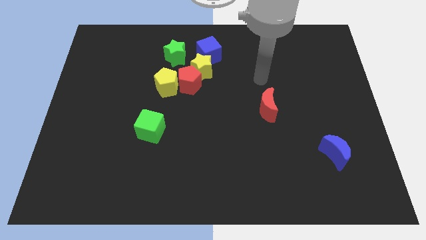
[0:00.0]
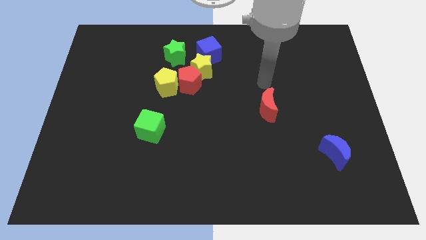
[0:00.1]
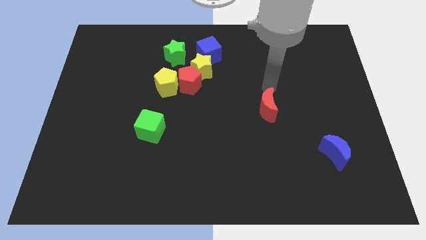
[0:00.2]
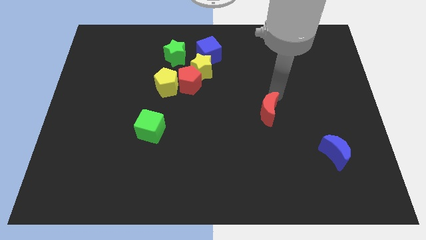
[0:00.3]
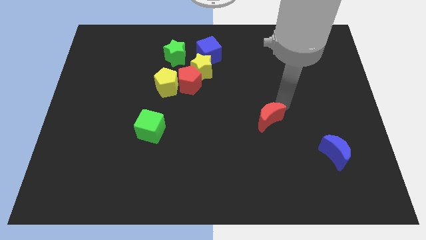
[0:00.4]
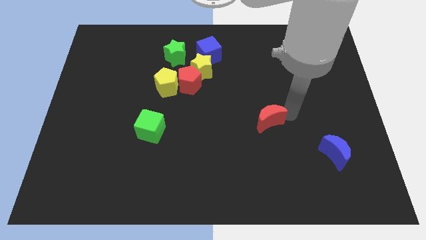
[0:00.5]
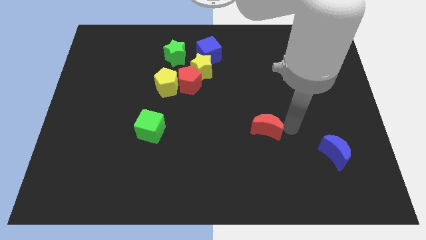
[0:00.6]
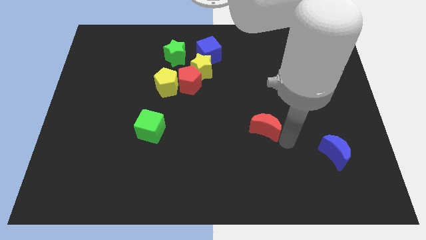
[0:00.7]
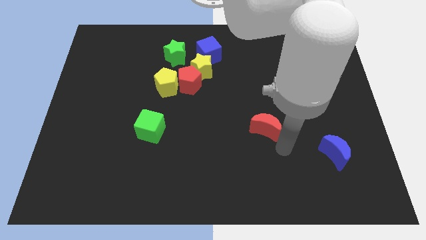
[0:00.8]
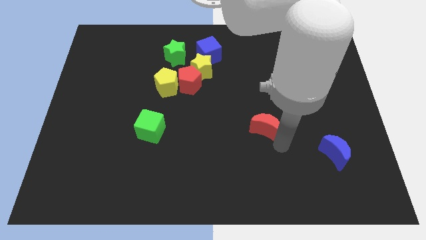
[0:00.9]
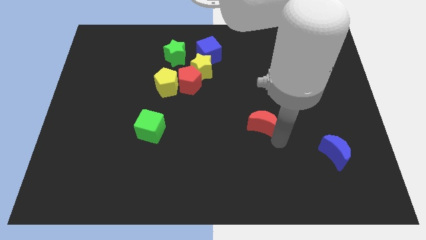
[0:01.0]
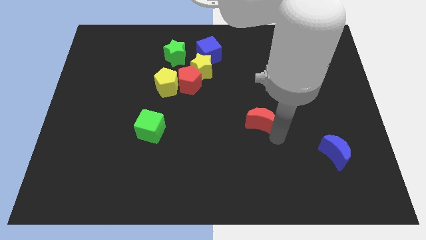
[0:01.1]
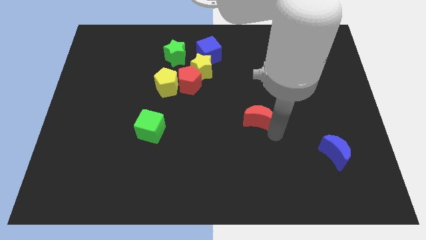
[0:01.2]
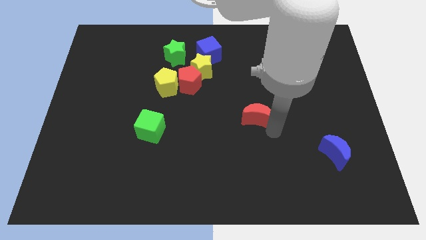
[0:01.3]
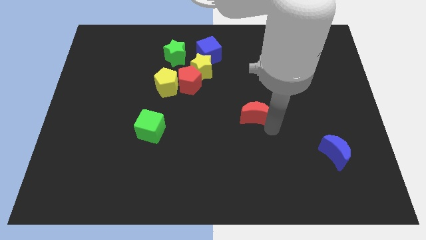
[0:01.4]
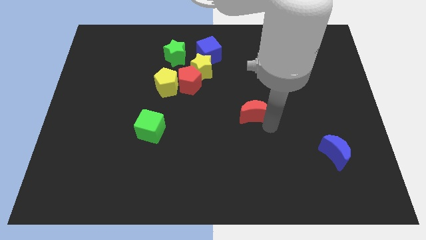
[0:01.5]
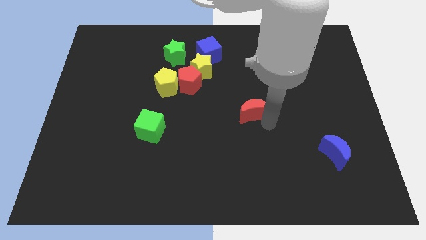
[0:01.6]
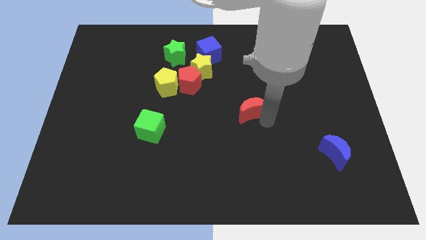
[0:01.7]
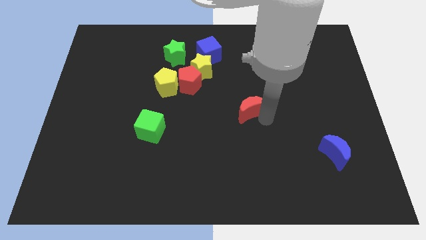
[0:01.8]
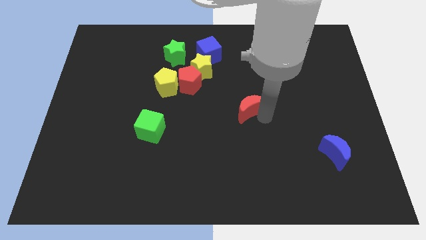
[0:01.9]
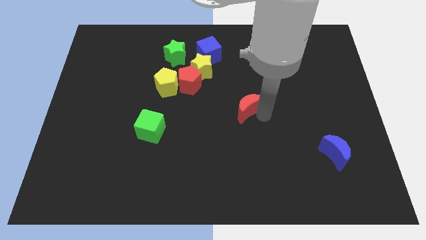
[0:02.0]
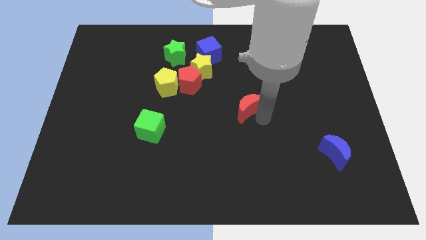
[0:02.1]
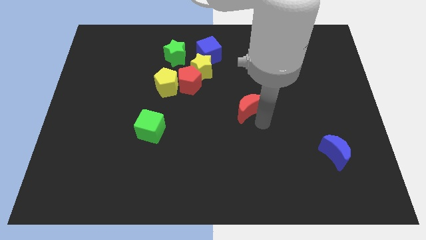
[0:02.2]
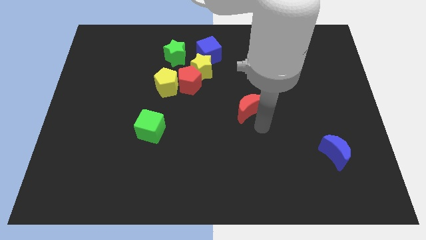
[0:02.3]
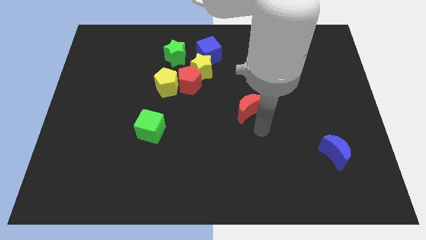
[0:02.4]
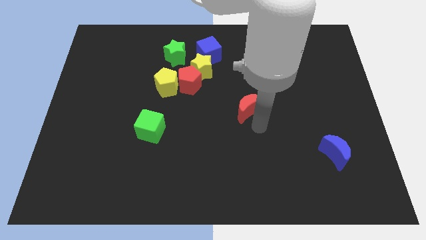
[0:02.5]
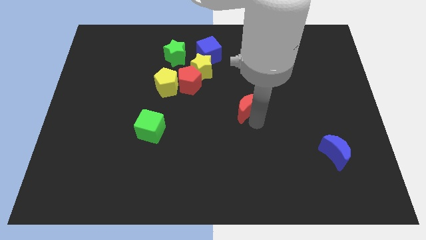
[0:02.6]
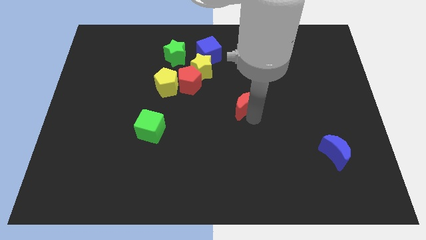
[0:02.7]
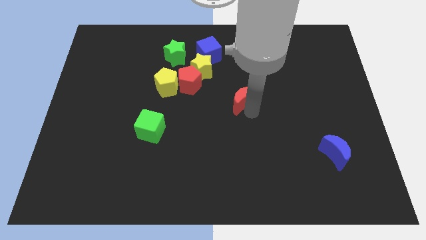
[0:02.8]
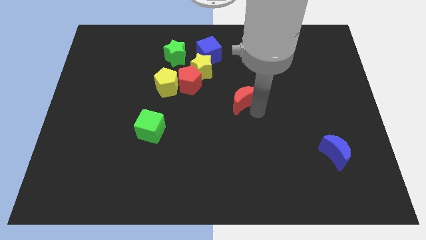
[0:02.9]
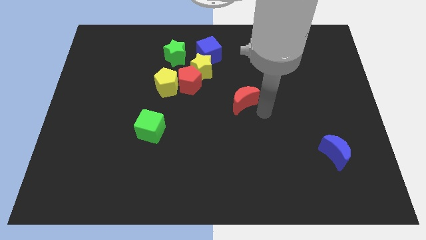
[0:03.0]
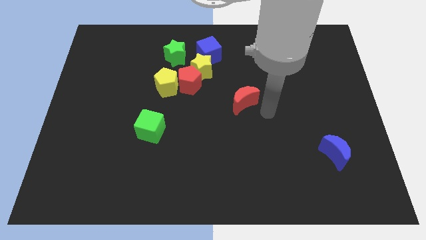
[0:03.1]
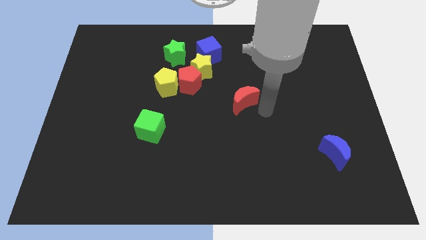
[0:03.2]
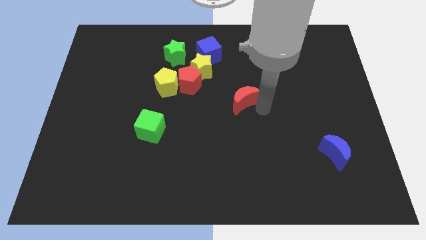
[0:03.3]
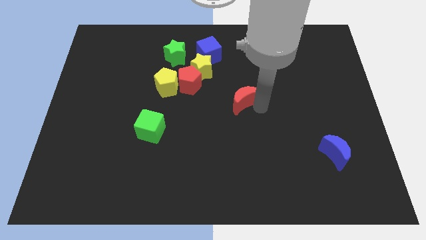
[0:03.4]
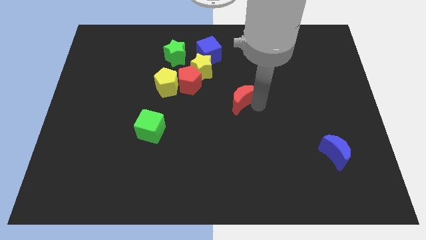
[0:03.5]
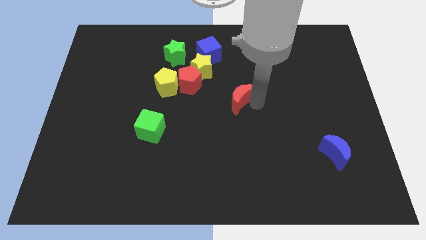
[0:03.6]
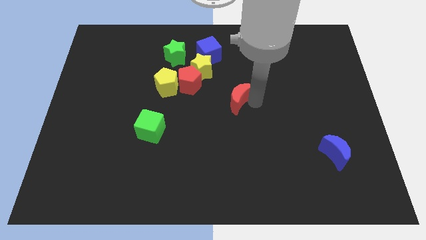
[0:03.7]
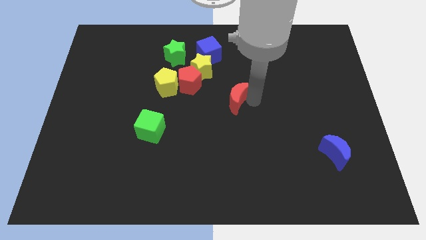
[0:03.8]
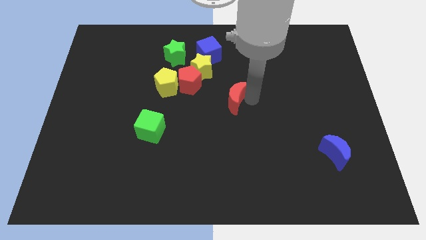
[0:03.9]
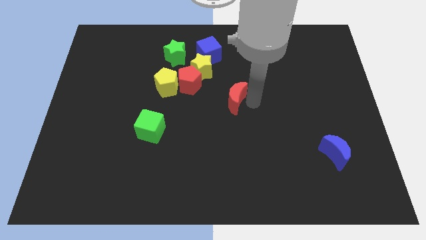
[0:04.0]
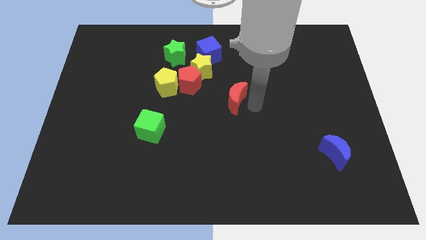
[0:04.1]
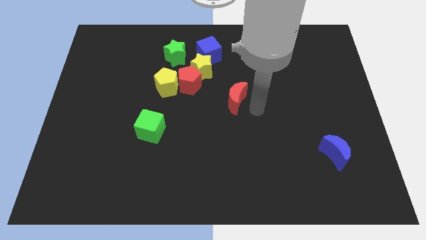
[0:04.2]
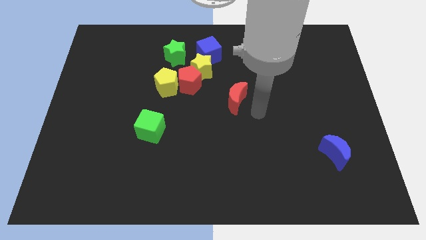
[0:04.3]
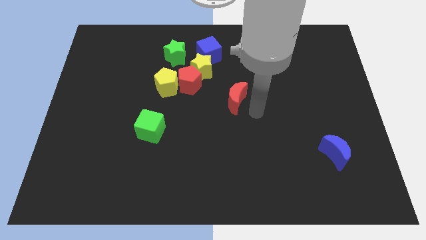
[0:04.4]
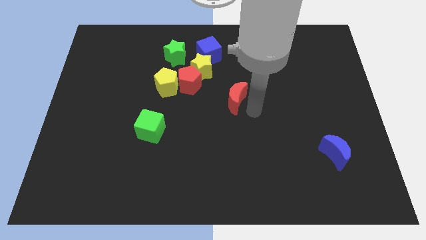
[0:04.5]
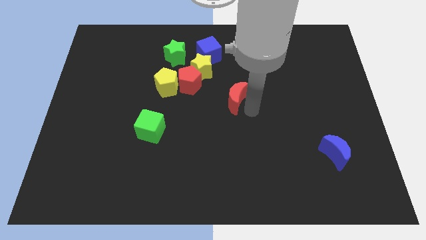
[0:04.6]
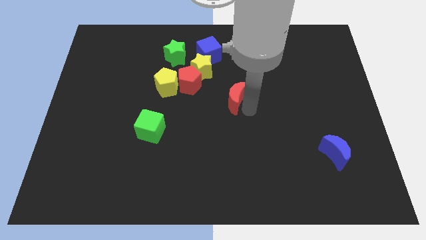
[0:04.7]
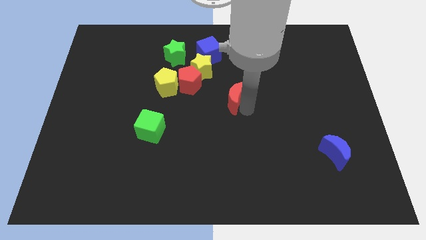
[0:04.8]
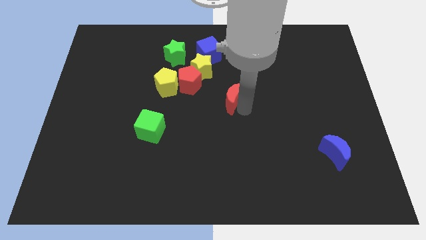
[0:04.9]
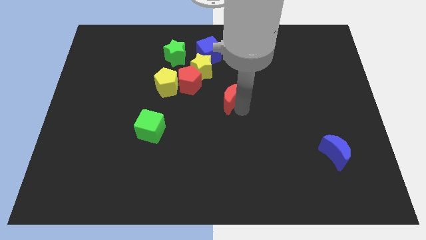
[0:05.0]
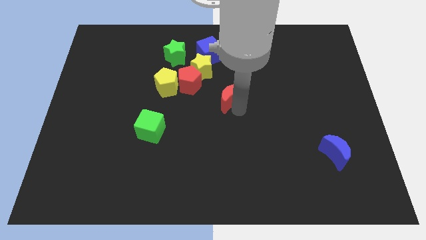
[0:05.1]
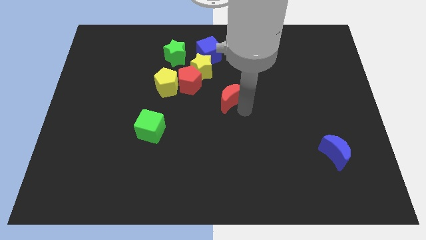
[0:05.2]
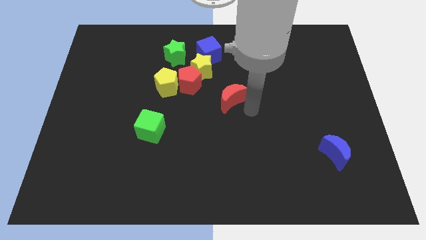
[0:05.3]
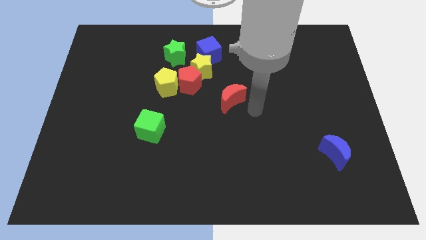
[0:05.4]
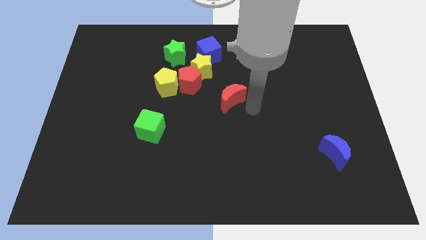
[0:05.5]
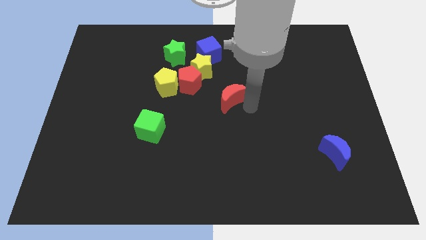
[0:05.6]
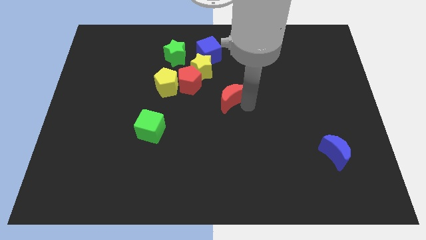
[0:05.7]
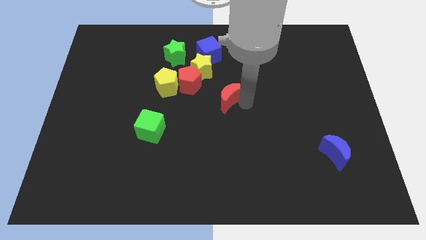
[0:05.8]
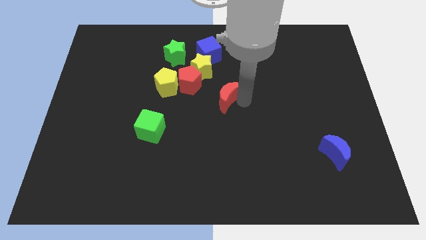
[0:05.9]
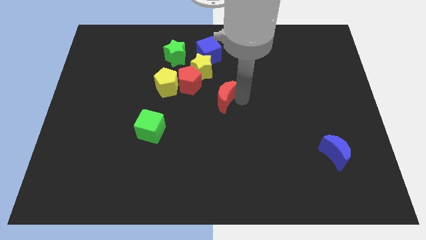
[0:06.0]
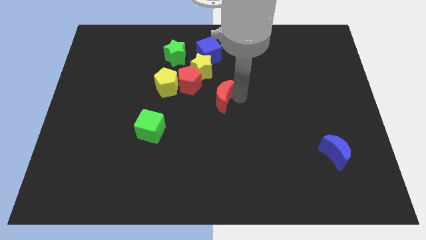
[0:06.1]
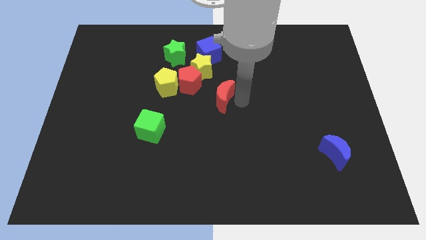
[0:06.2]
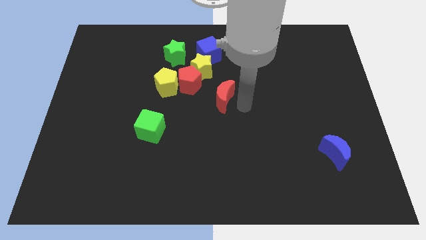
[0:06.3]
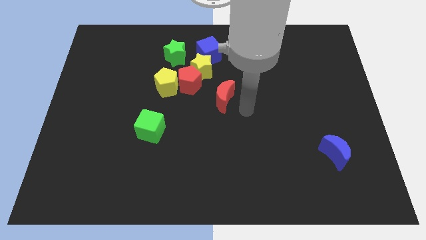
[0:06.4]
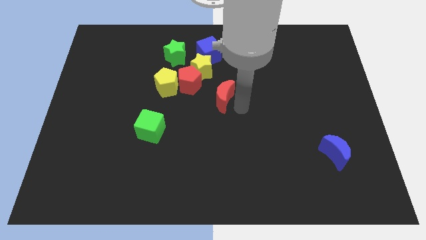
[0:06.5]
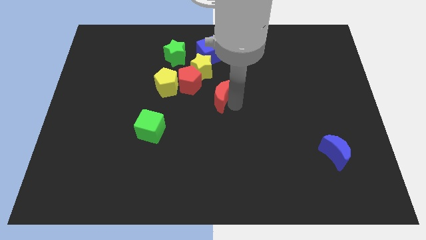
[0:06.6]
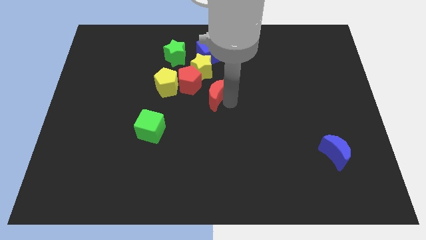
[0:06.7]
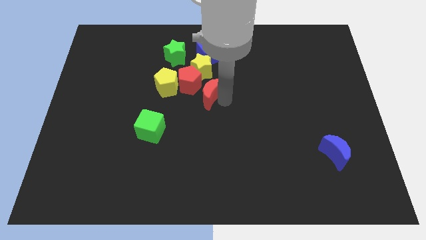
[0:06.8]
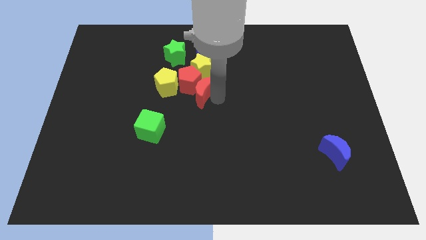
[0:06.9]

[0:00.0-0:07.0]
slide the red moon towards the red pentagon

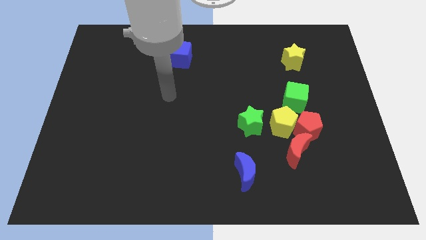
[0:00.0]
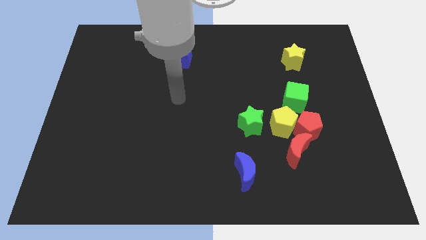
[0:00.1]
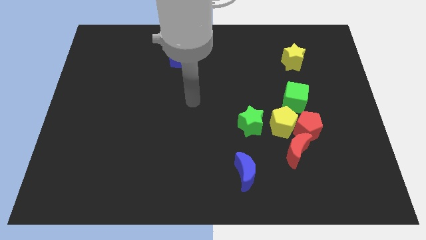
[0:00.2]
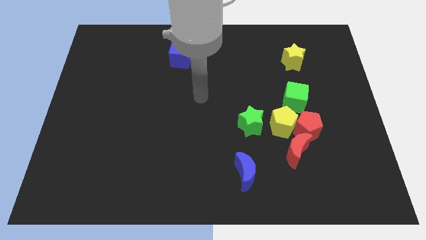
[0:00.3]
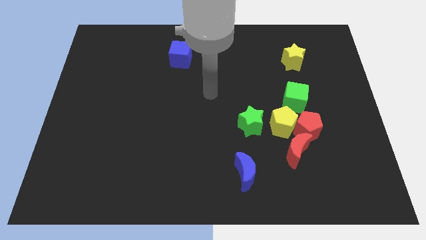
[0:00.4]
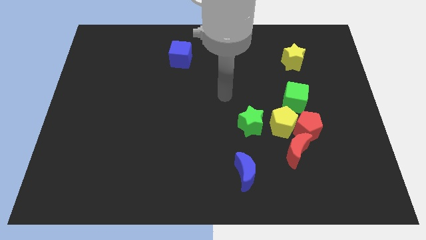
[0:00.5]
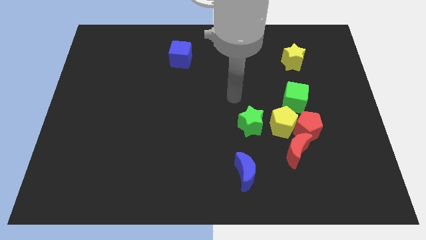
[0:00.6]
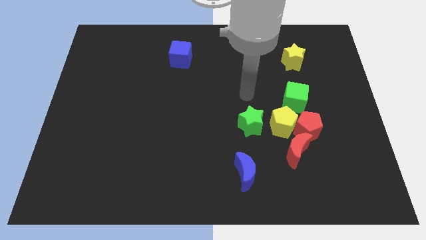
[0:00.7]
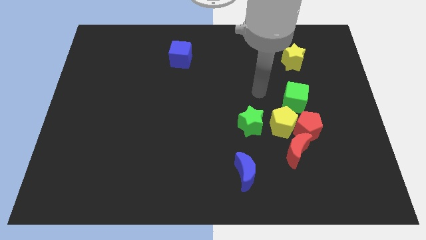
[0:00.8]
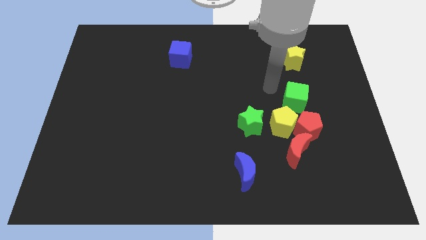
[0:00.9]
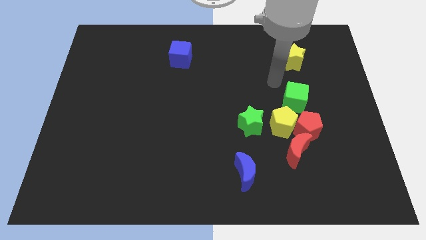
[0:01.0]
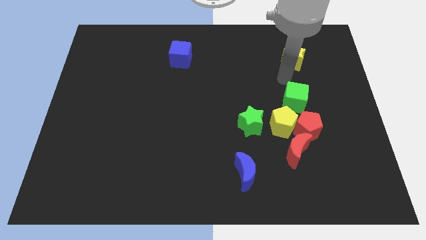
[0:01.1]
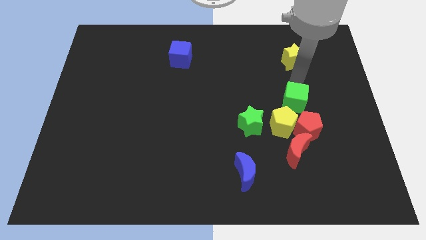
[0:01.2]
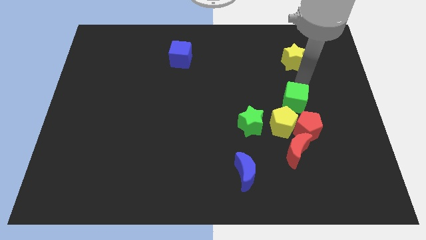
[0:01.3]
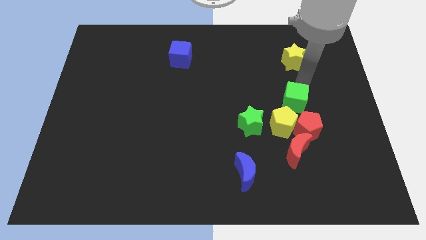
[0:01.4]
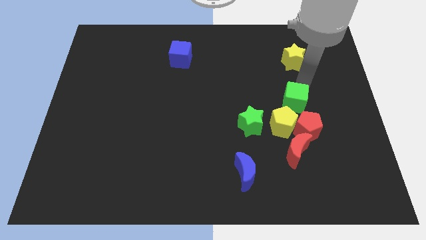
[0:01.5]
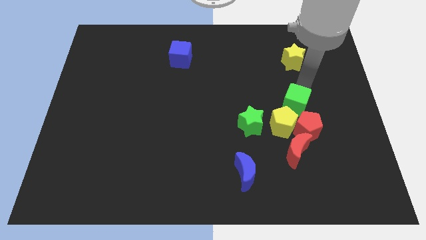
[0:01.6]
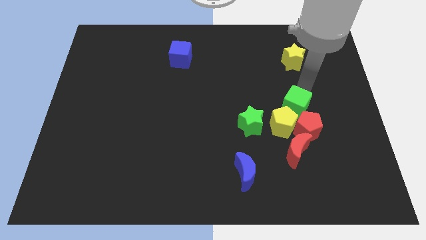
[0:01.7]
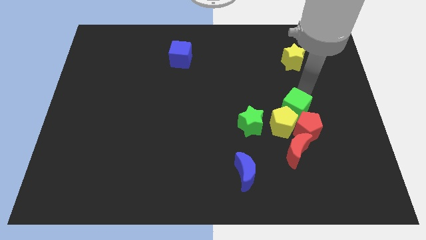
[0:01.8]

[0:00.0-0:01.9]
slide the green cube to the yellow pentagon
